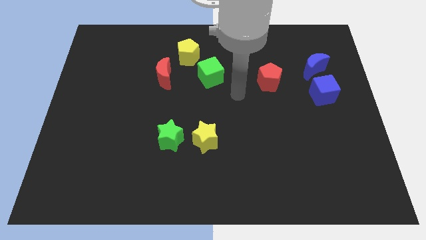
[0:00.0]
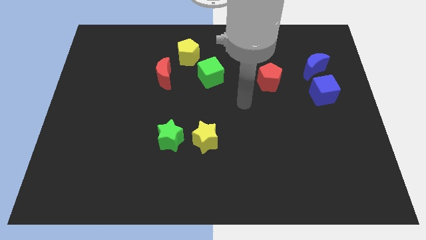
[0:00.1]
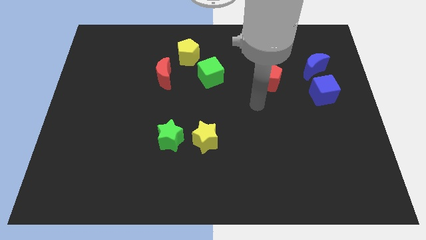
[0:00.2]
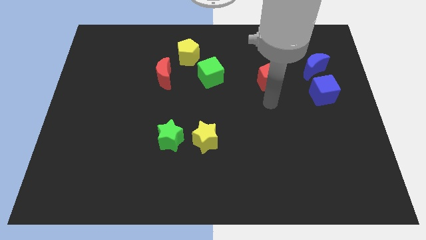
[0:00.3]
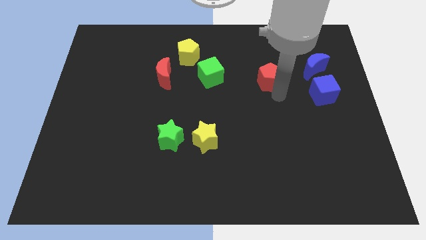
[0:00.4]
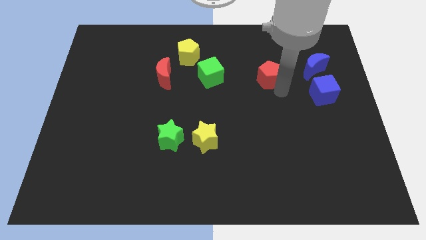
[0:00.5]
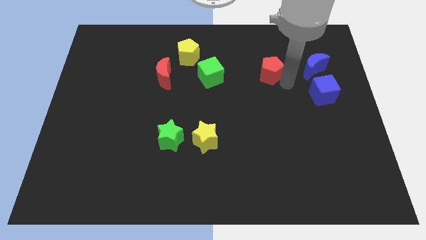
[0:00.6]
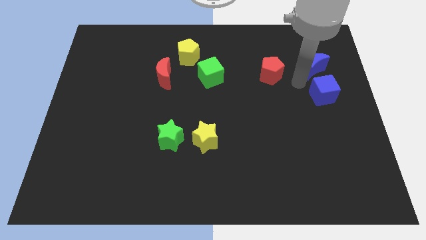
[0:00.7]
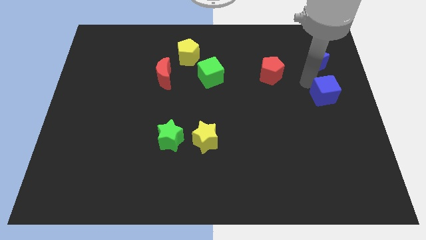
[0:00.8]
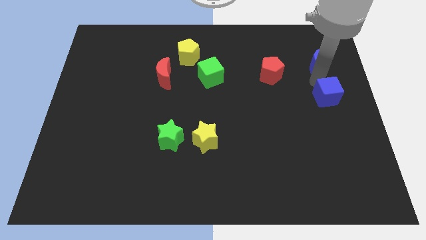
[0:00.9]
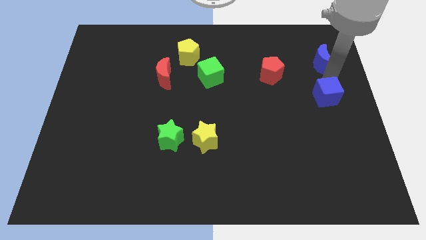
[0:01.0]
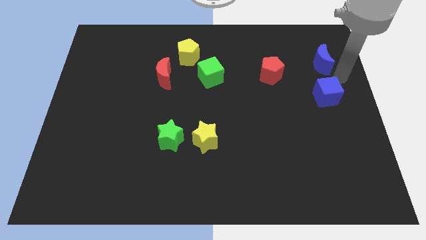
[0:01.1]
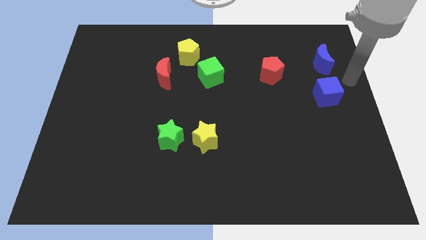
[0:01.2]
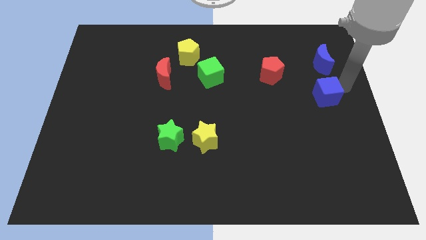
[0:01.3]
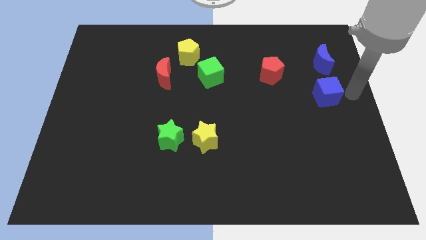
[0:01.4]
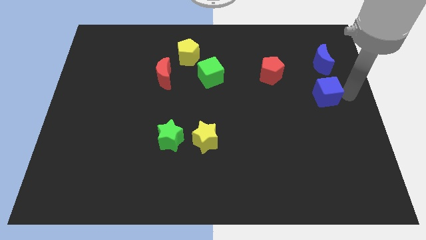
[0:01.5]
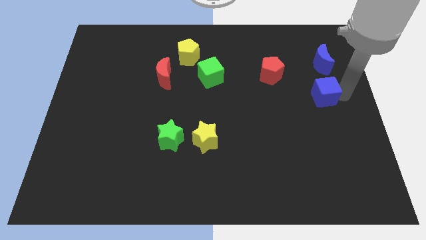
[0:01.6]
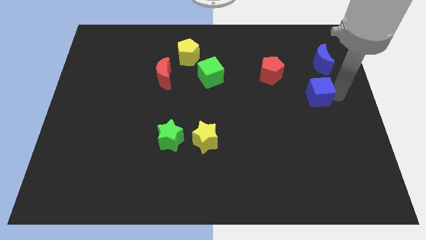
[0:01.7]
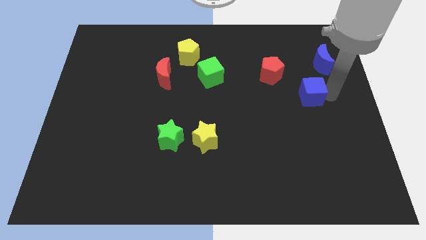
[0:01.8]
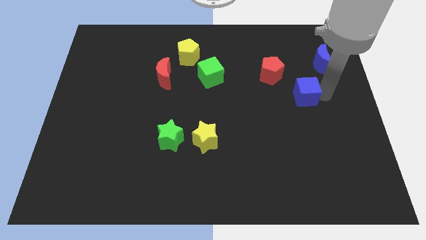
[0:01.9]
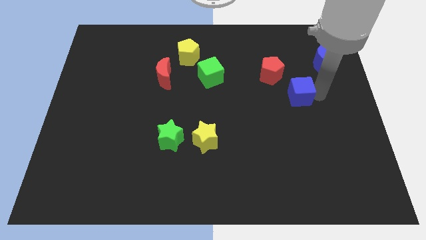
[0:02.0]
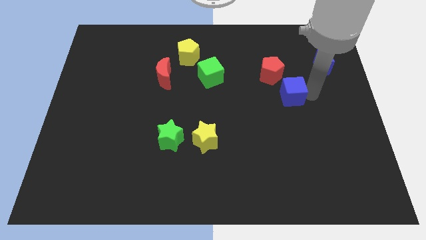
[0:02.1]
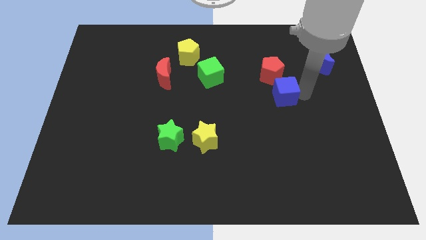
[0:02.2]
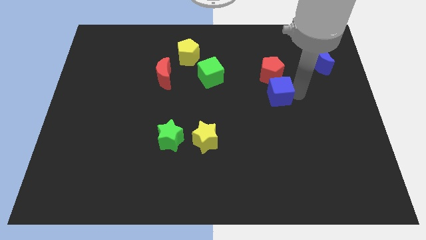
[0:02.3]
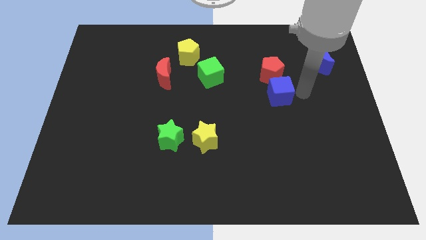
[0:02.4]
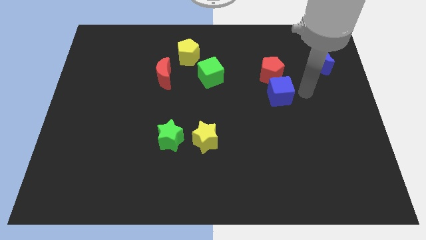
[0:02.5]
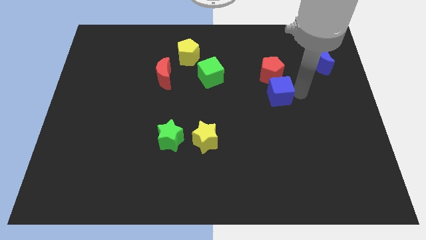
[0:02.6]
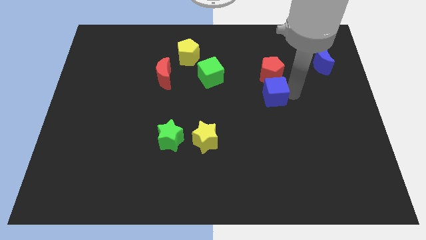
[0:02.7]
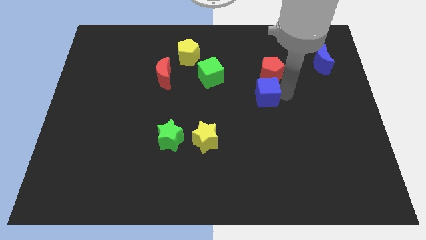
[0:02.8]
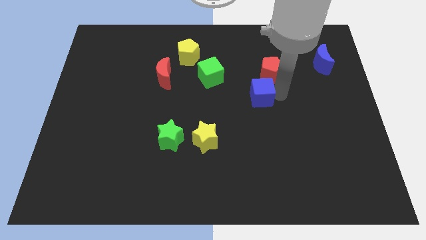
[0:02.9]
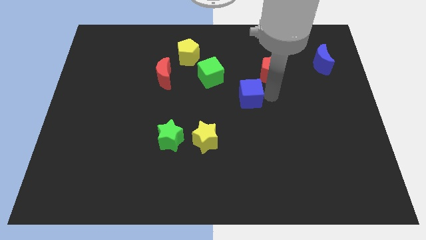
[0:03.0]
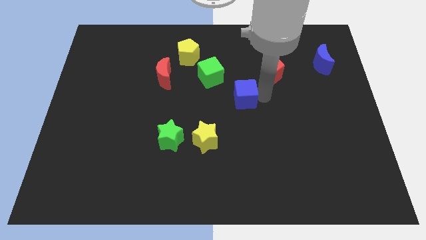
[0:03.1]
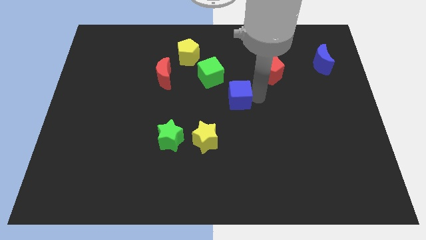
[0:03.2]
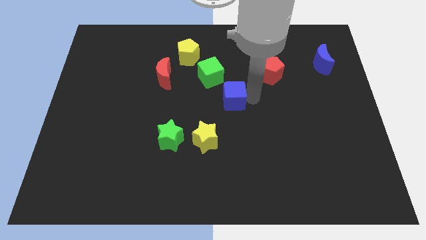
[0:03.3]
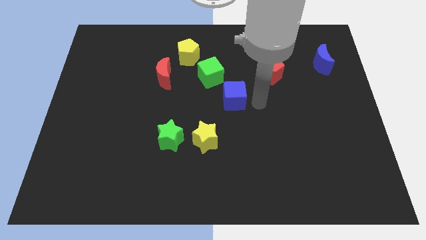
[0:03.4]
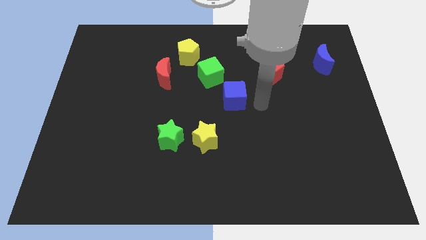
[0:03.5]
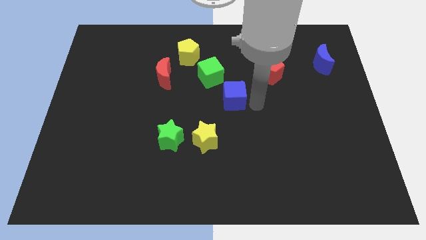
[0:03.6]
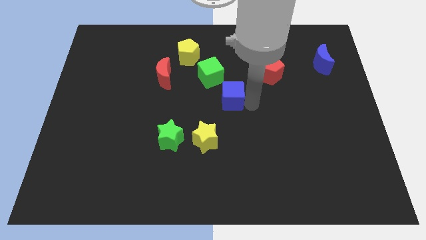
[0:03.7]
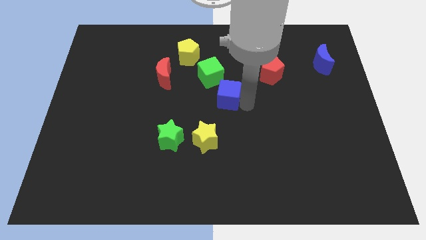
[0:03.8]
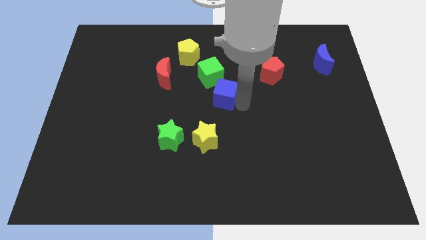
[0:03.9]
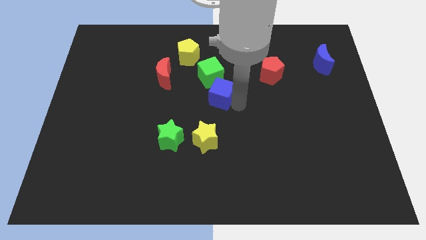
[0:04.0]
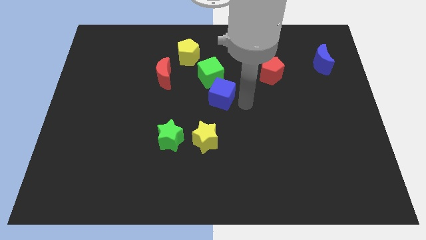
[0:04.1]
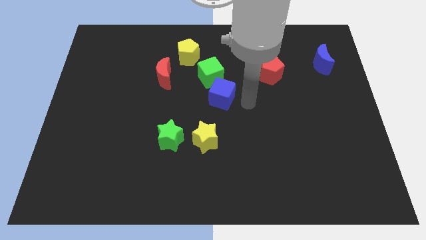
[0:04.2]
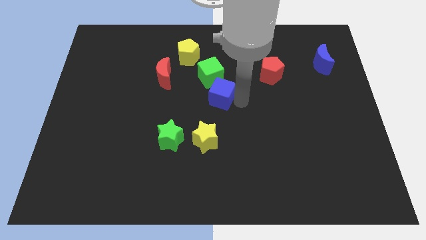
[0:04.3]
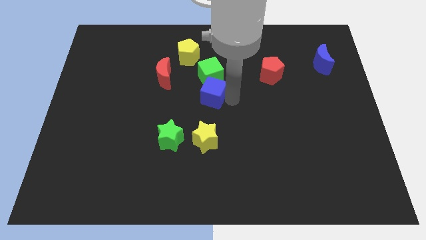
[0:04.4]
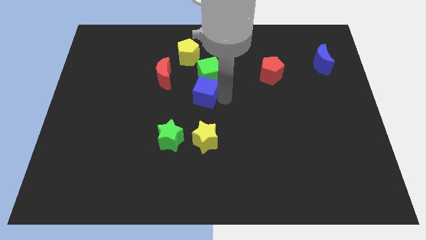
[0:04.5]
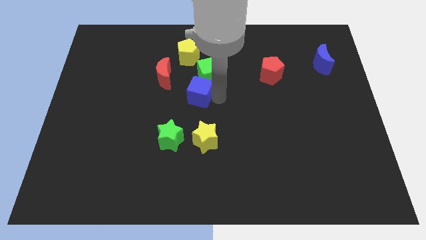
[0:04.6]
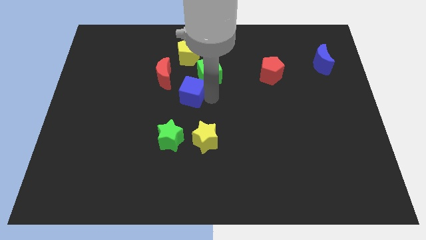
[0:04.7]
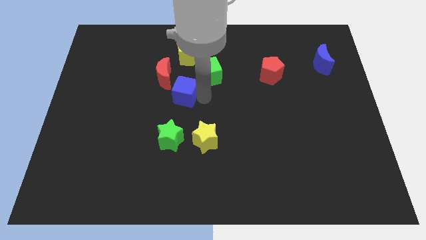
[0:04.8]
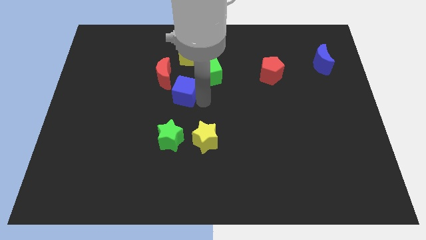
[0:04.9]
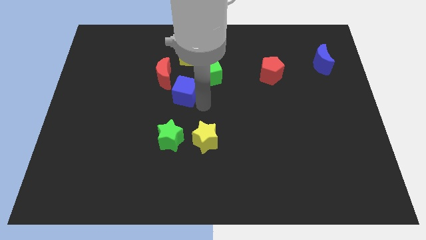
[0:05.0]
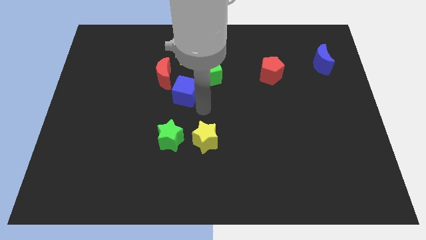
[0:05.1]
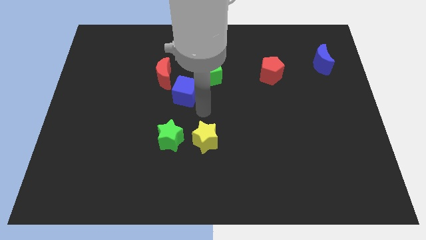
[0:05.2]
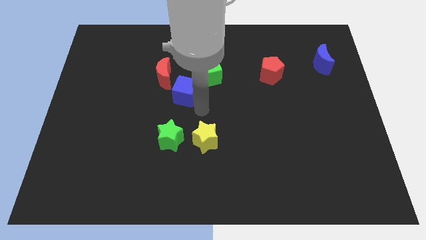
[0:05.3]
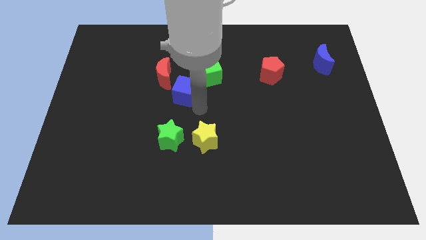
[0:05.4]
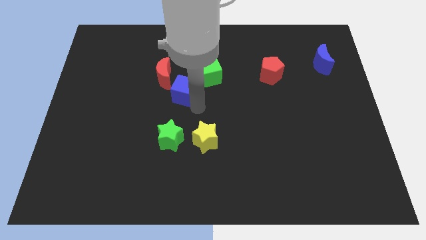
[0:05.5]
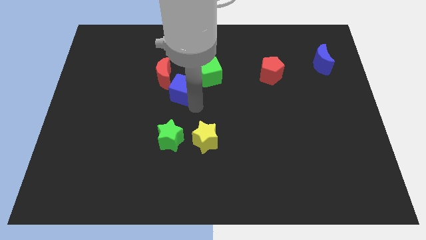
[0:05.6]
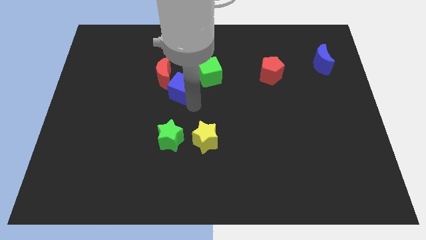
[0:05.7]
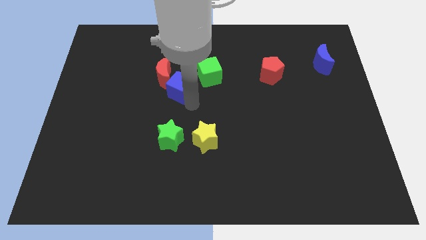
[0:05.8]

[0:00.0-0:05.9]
push the blue cube next to the red moon

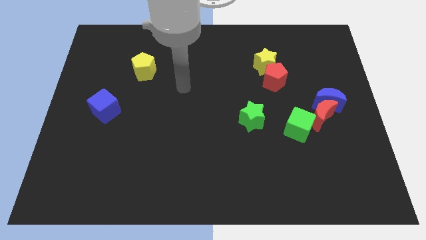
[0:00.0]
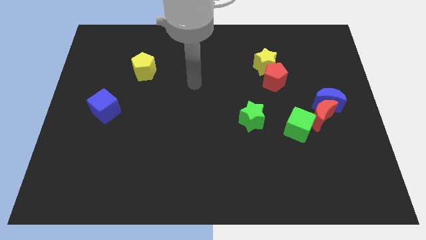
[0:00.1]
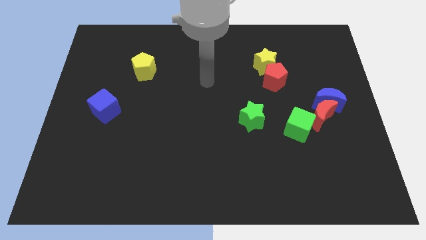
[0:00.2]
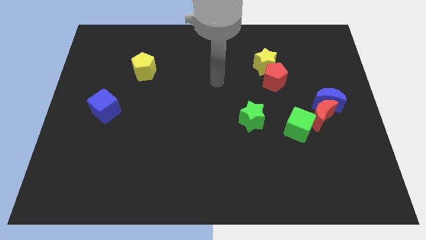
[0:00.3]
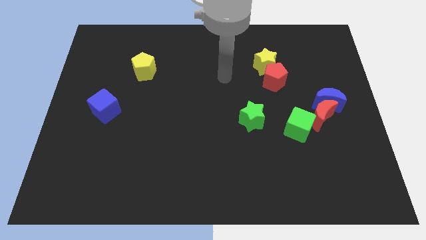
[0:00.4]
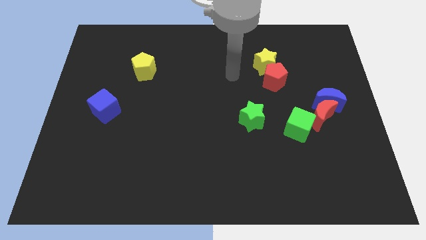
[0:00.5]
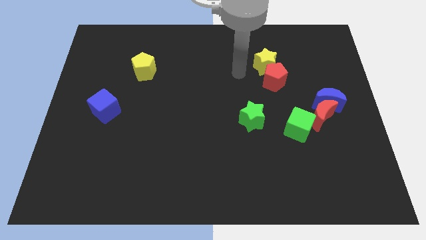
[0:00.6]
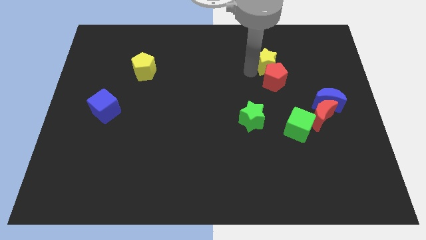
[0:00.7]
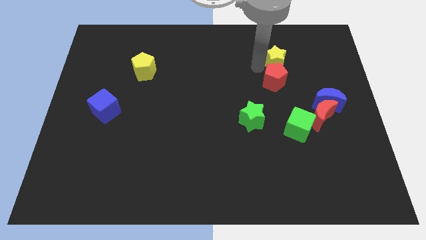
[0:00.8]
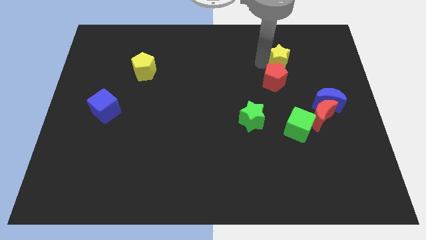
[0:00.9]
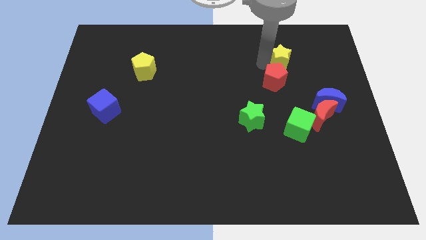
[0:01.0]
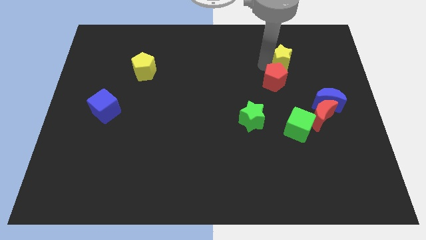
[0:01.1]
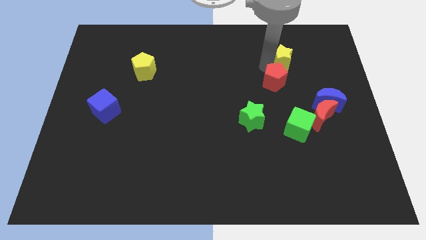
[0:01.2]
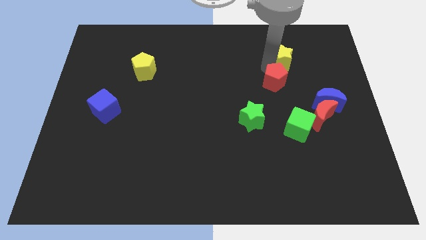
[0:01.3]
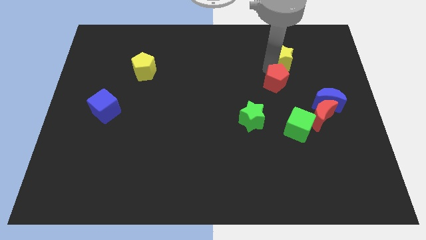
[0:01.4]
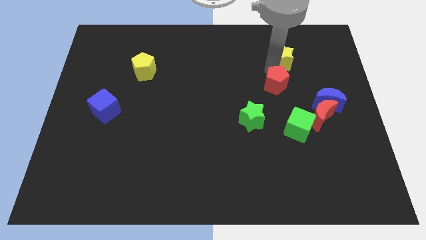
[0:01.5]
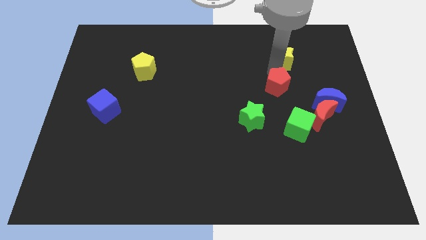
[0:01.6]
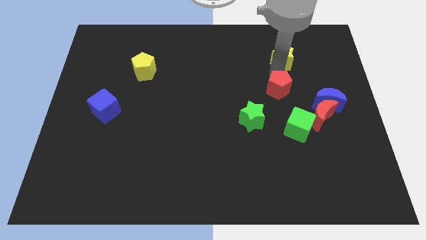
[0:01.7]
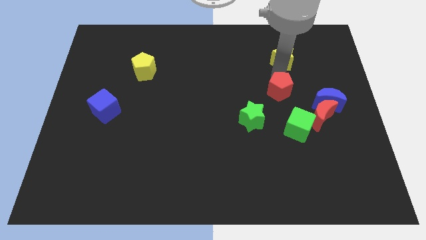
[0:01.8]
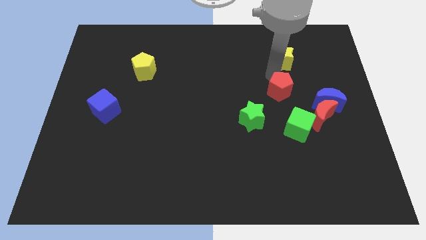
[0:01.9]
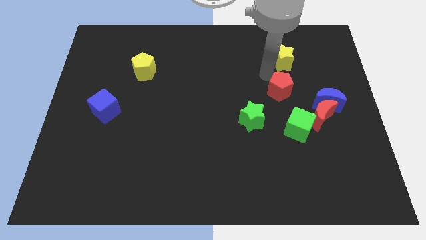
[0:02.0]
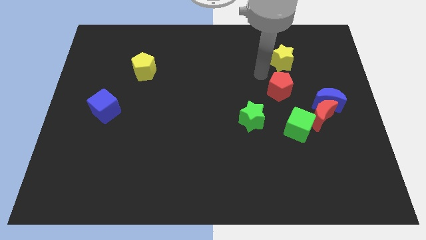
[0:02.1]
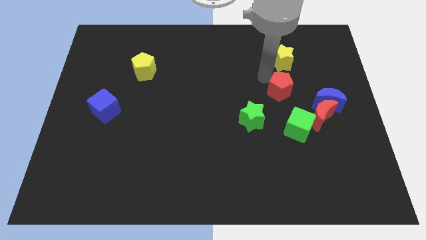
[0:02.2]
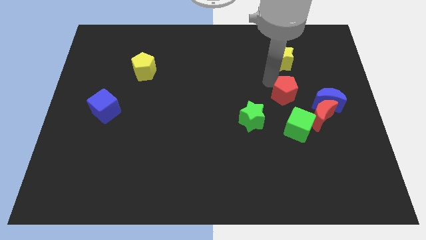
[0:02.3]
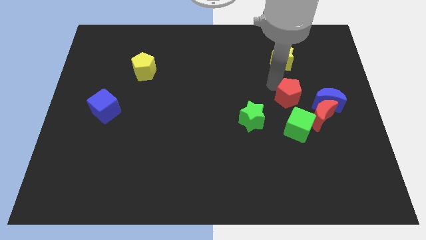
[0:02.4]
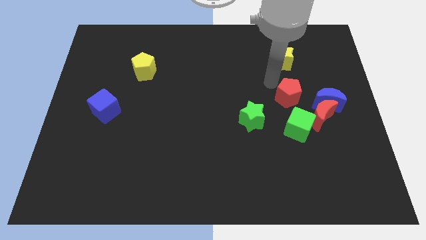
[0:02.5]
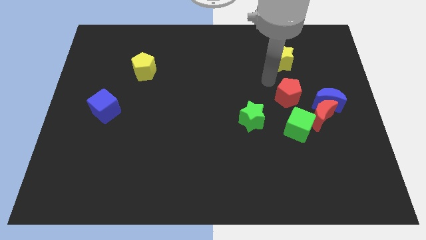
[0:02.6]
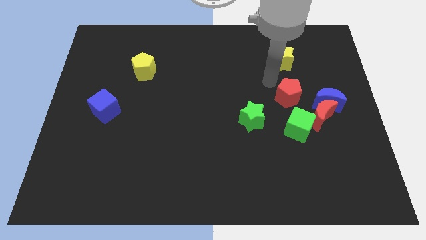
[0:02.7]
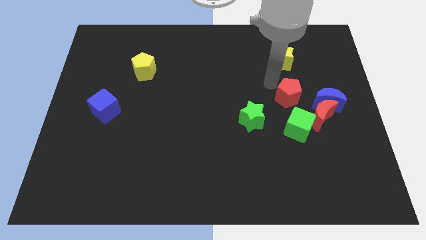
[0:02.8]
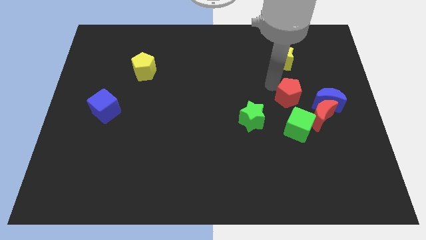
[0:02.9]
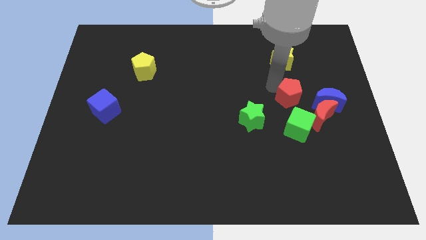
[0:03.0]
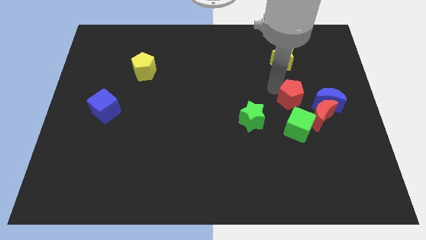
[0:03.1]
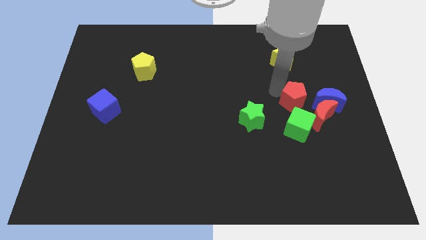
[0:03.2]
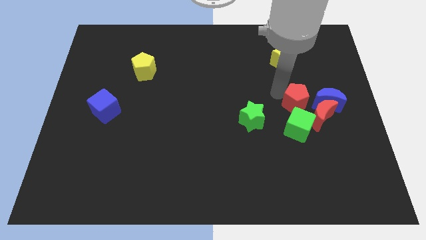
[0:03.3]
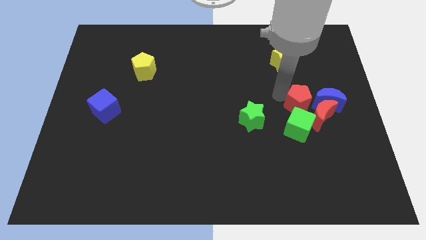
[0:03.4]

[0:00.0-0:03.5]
move the red pentagon next to the red moon
